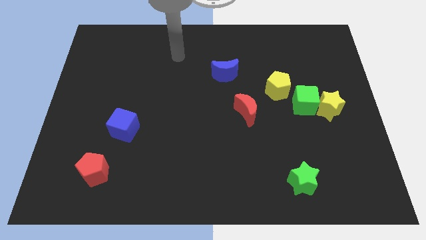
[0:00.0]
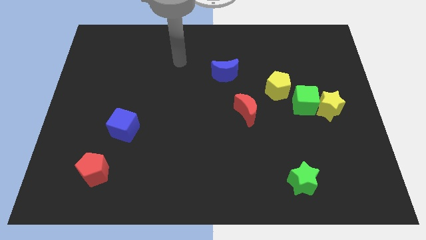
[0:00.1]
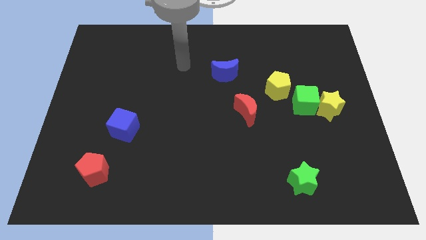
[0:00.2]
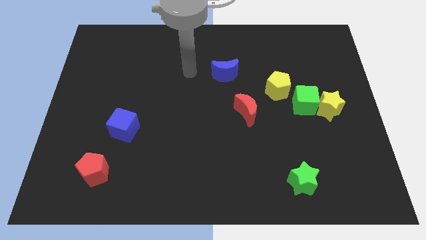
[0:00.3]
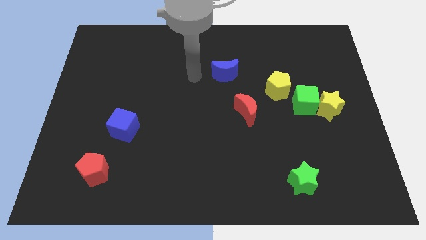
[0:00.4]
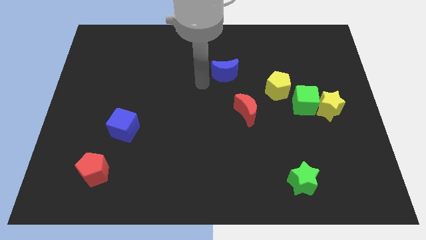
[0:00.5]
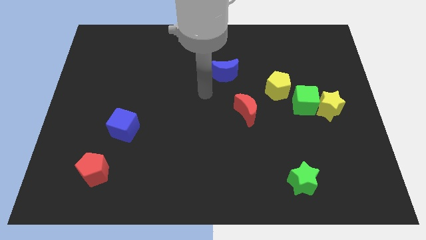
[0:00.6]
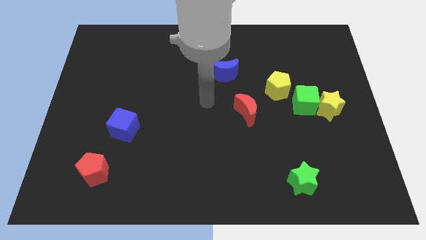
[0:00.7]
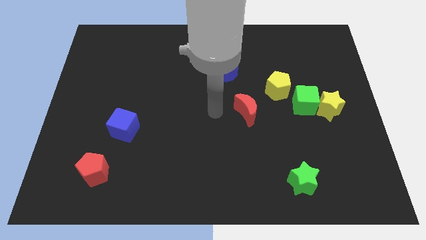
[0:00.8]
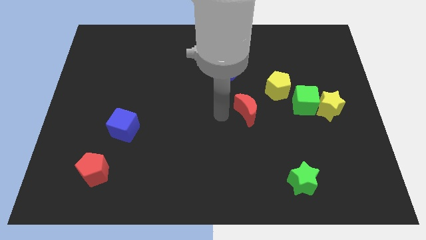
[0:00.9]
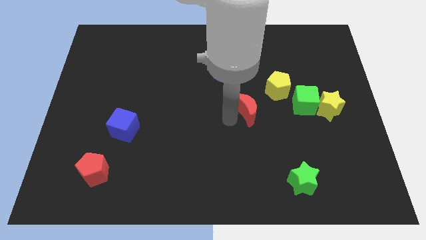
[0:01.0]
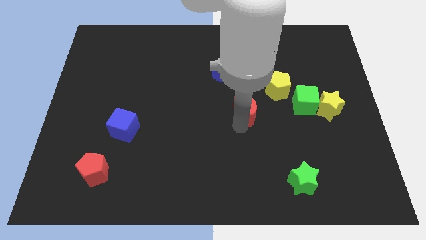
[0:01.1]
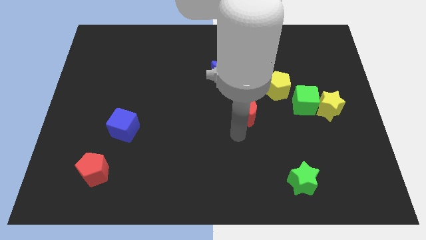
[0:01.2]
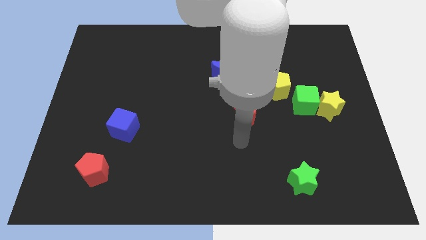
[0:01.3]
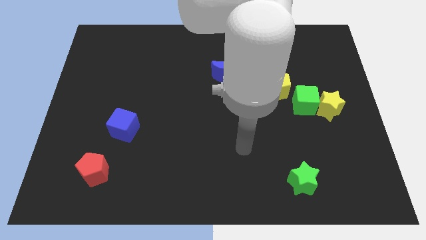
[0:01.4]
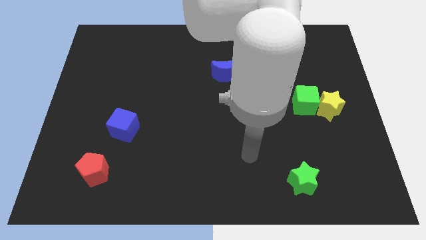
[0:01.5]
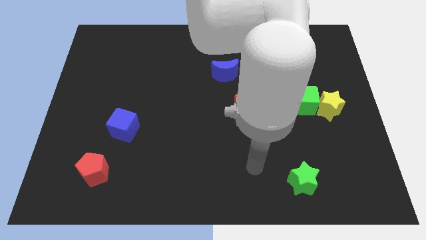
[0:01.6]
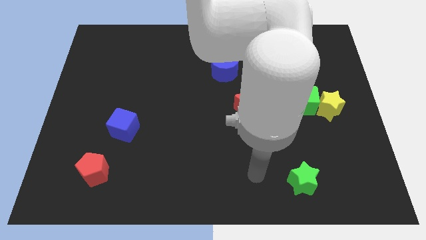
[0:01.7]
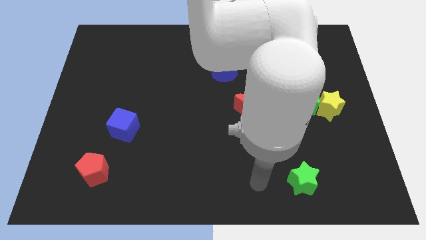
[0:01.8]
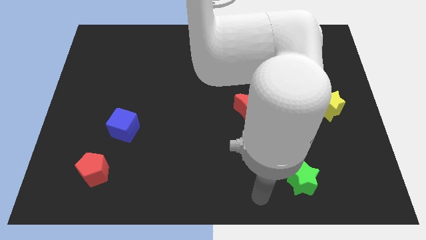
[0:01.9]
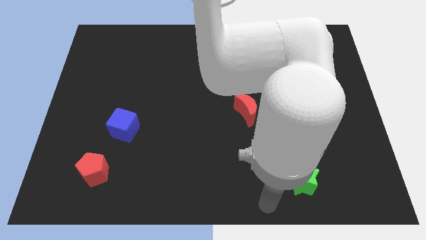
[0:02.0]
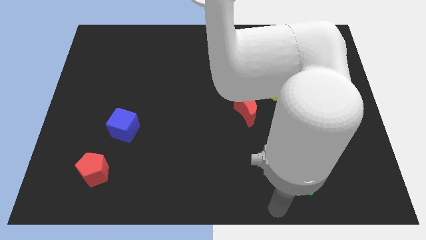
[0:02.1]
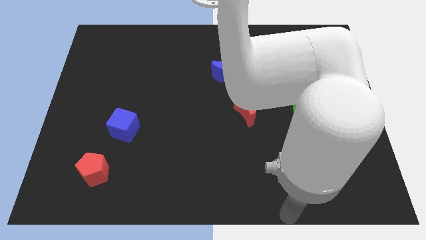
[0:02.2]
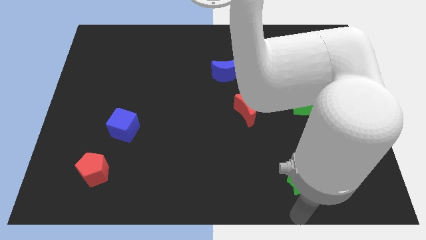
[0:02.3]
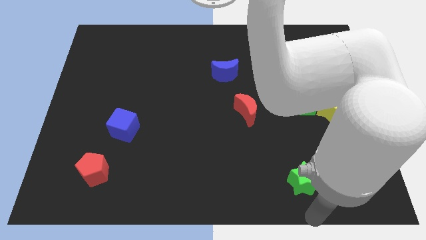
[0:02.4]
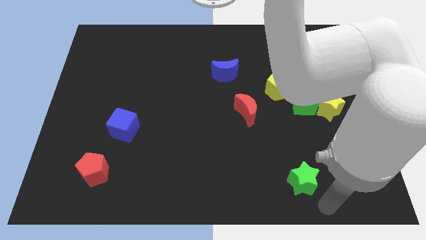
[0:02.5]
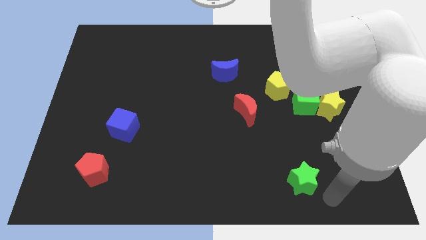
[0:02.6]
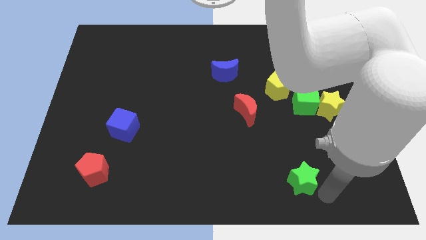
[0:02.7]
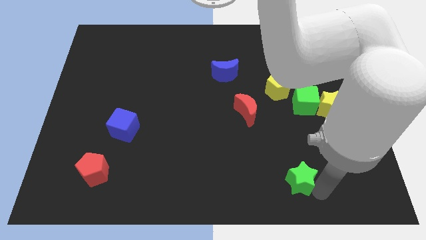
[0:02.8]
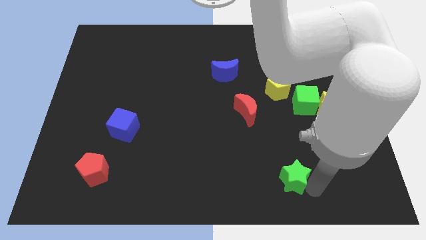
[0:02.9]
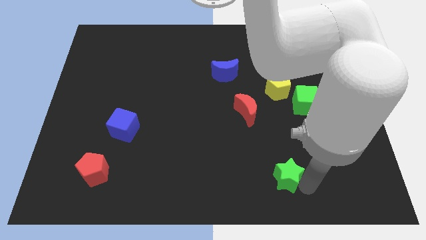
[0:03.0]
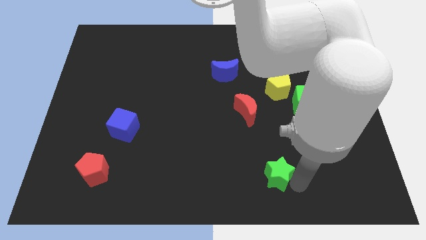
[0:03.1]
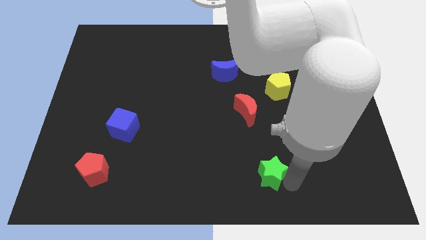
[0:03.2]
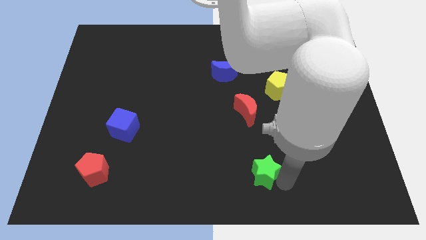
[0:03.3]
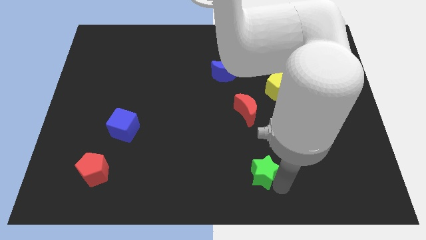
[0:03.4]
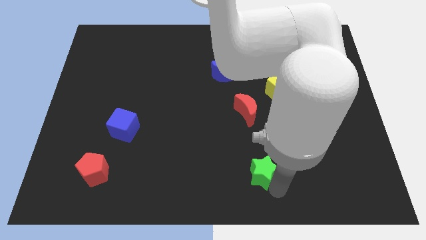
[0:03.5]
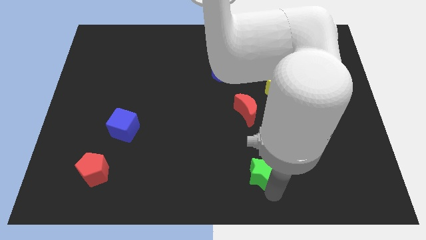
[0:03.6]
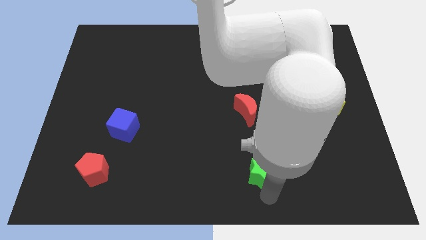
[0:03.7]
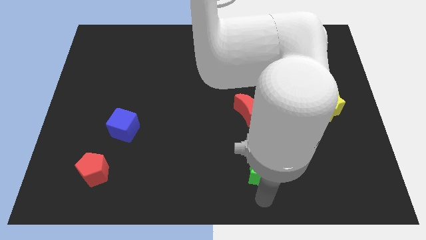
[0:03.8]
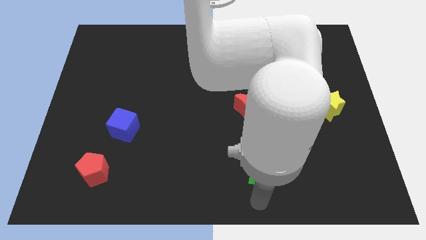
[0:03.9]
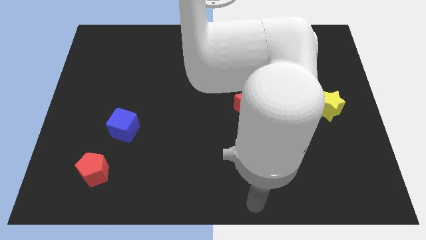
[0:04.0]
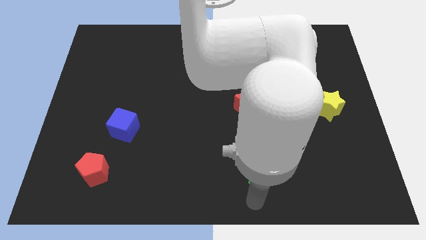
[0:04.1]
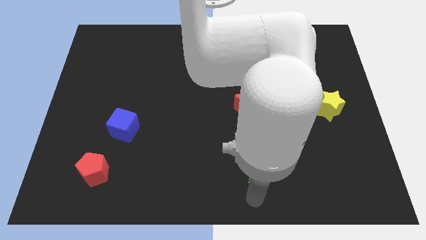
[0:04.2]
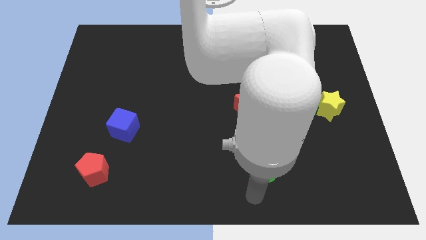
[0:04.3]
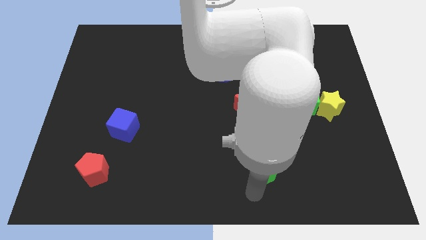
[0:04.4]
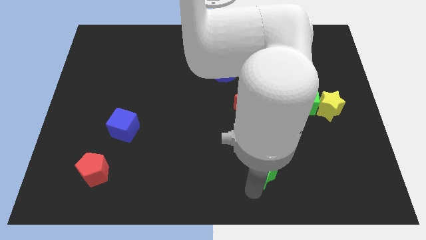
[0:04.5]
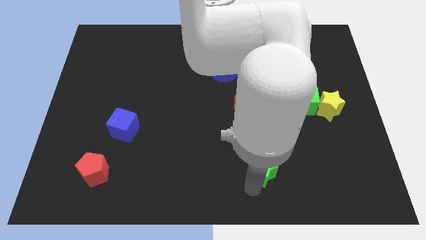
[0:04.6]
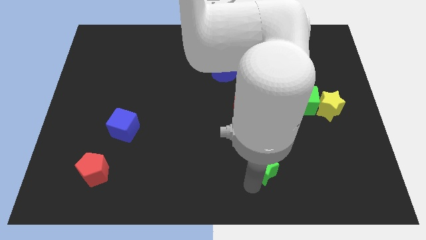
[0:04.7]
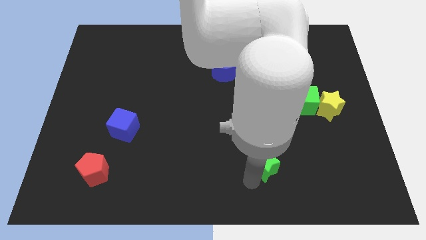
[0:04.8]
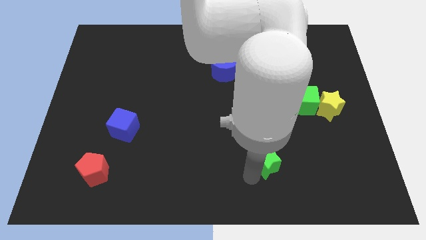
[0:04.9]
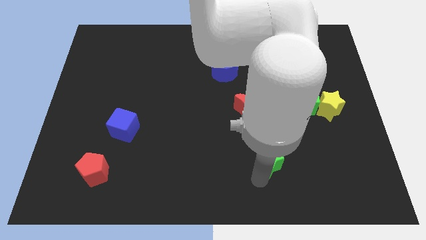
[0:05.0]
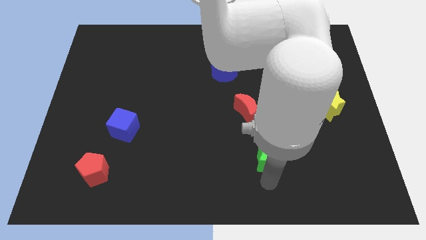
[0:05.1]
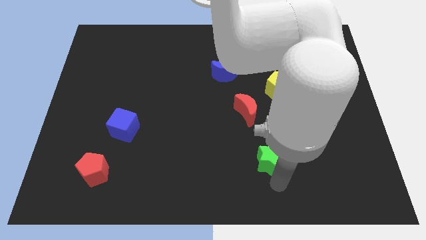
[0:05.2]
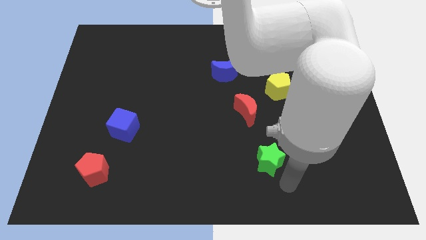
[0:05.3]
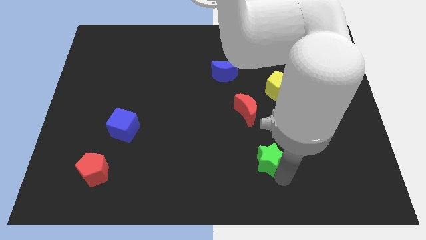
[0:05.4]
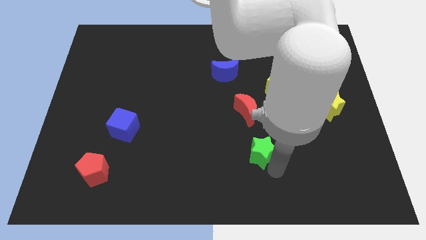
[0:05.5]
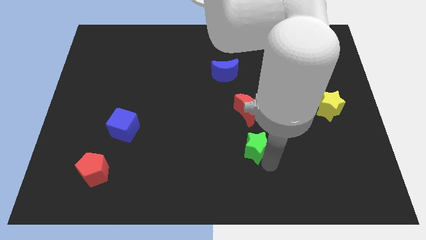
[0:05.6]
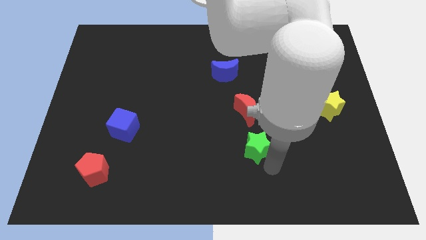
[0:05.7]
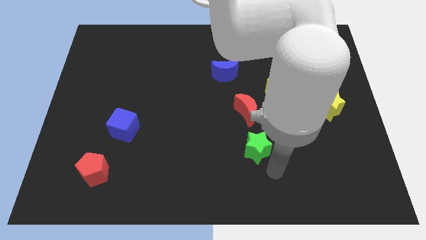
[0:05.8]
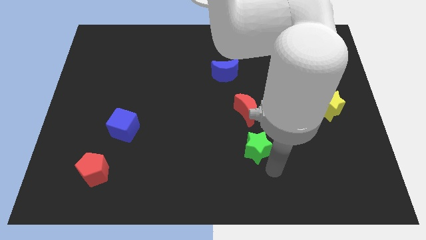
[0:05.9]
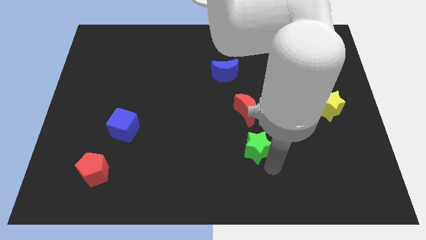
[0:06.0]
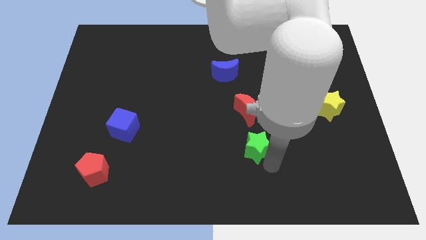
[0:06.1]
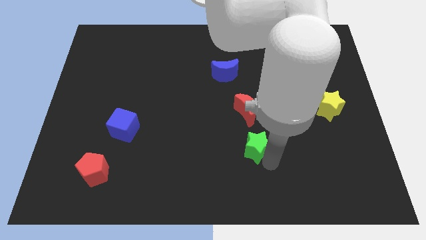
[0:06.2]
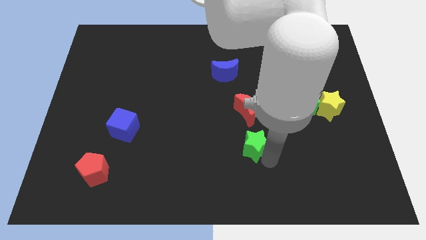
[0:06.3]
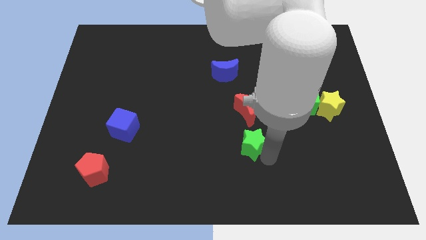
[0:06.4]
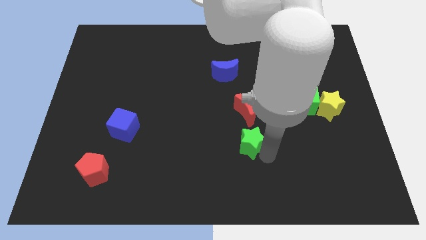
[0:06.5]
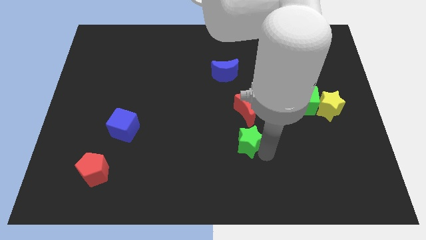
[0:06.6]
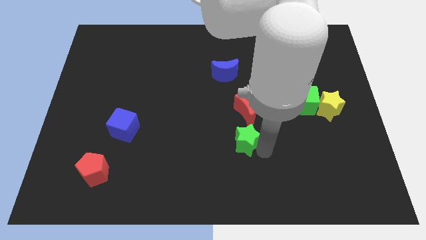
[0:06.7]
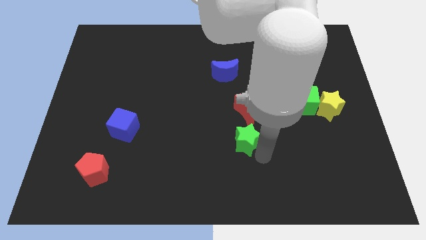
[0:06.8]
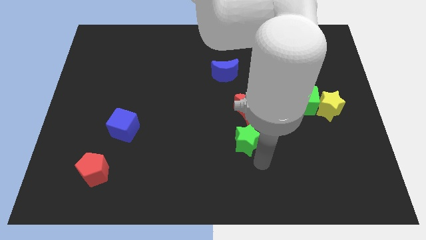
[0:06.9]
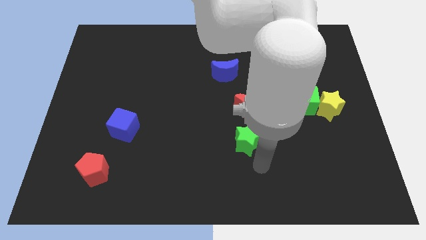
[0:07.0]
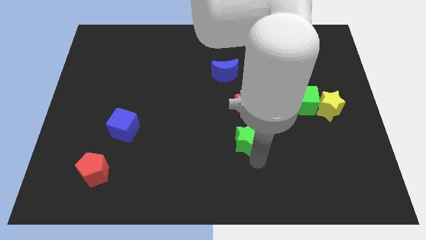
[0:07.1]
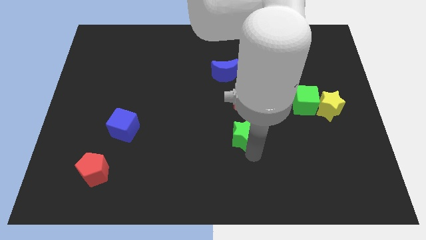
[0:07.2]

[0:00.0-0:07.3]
slide the green star to the center of the board
